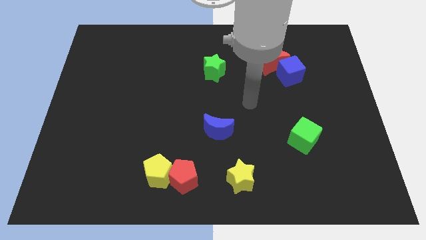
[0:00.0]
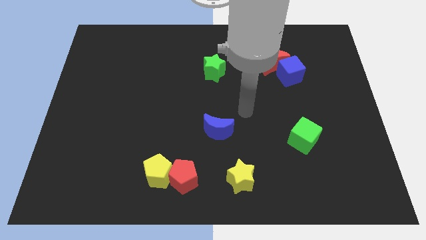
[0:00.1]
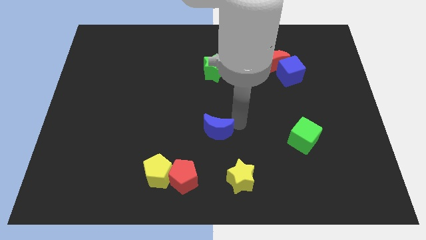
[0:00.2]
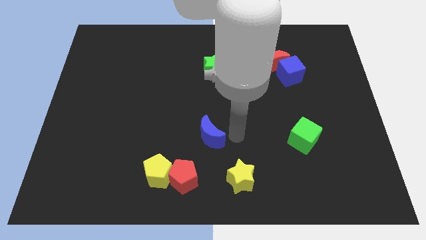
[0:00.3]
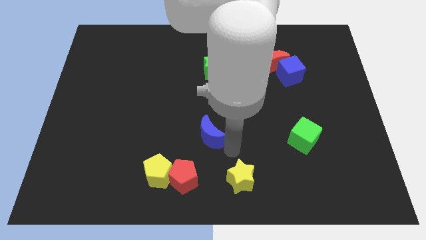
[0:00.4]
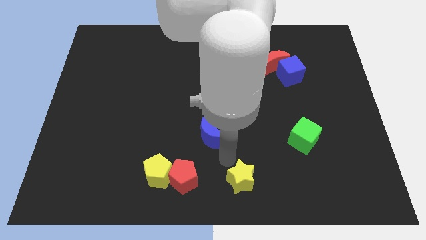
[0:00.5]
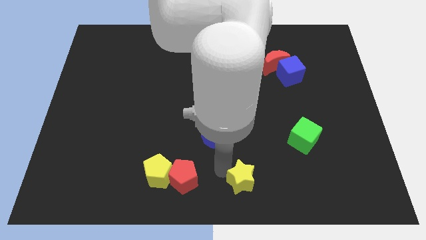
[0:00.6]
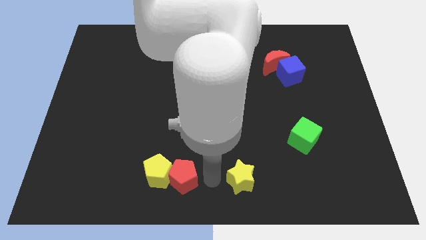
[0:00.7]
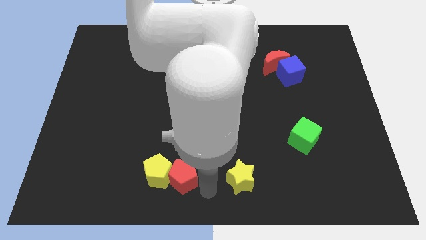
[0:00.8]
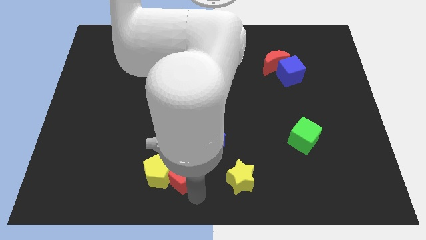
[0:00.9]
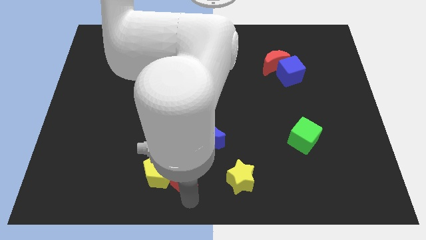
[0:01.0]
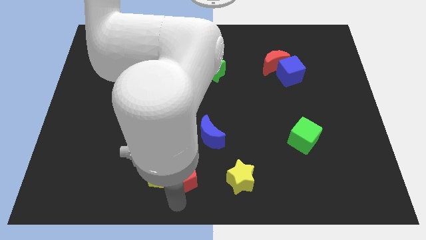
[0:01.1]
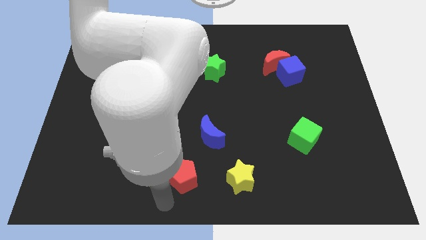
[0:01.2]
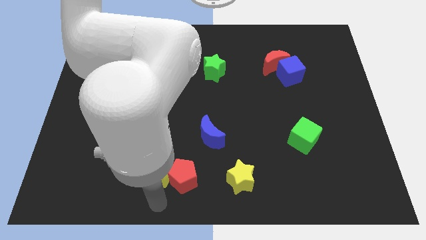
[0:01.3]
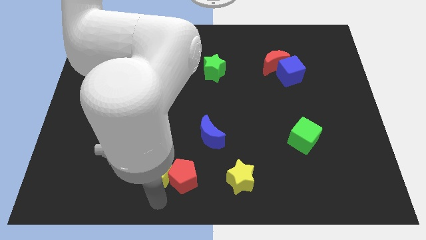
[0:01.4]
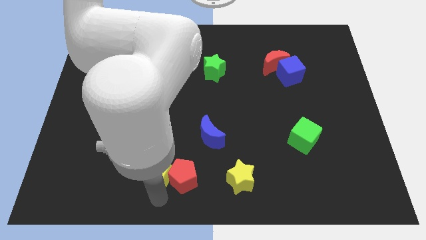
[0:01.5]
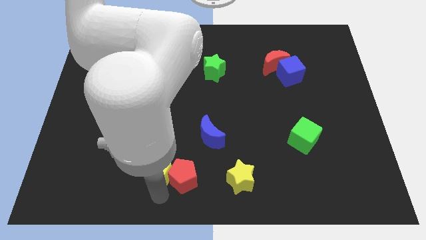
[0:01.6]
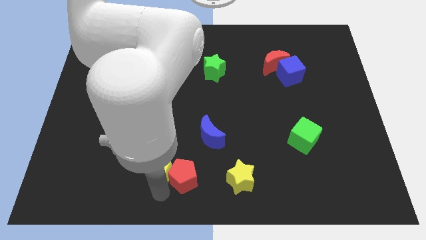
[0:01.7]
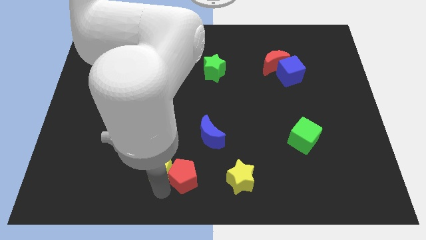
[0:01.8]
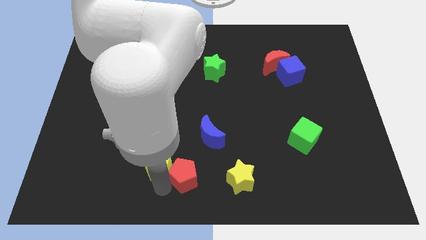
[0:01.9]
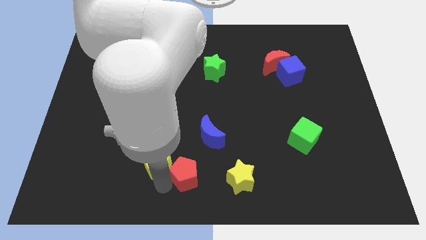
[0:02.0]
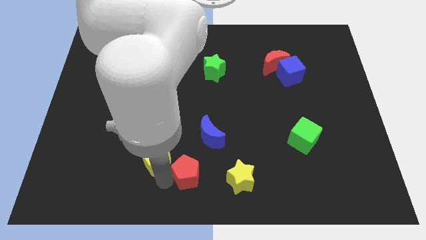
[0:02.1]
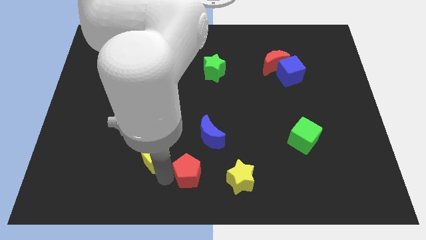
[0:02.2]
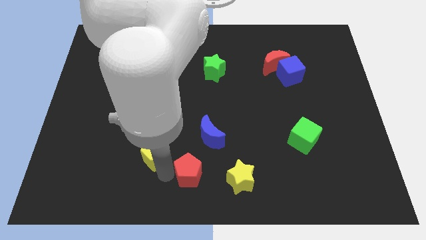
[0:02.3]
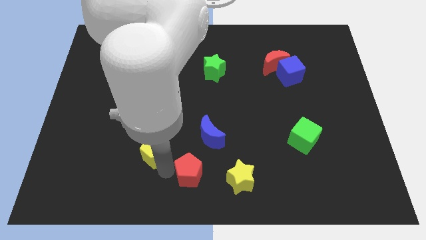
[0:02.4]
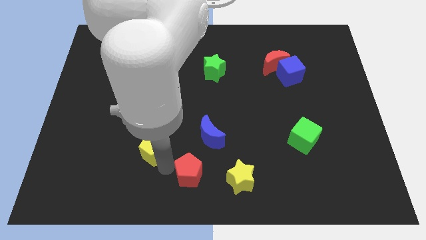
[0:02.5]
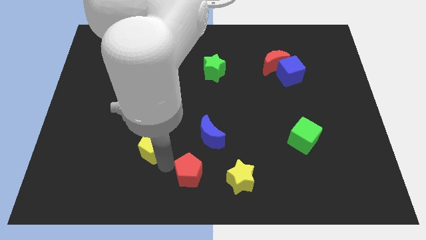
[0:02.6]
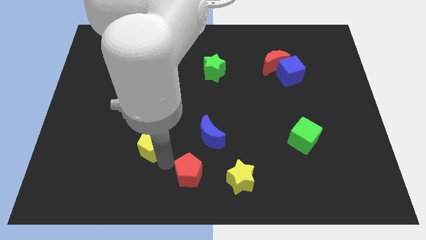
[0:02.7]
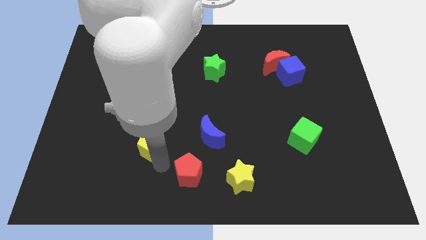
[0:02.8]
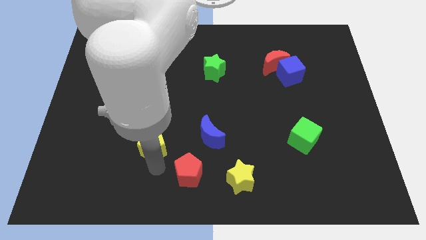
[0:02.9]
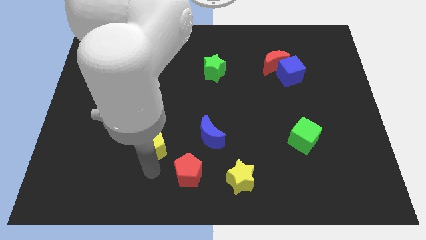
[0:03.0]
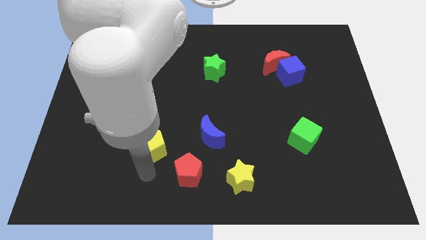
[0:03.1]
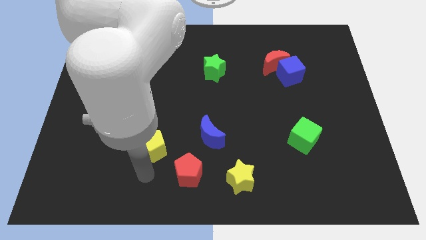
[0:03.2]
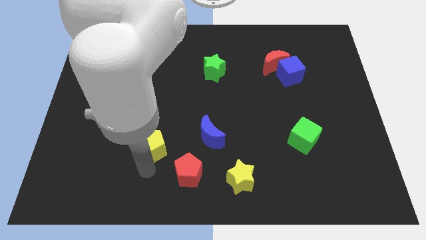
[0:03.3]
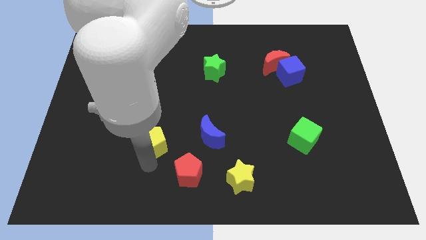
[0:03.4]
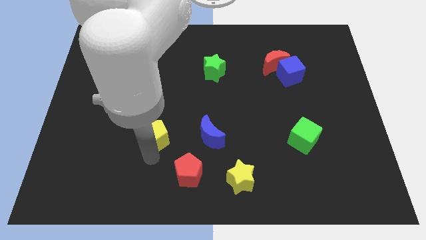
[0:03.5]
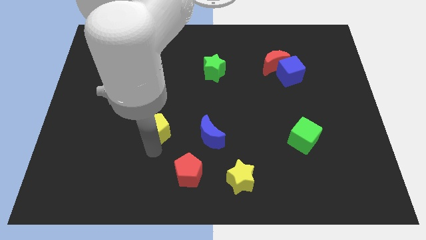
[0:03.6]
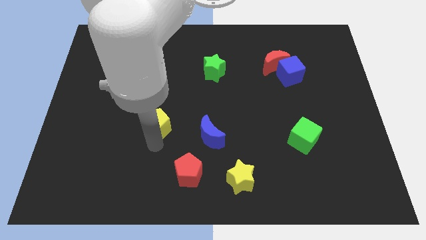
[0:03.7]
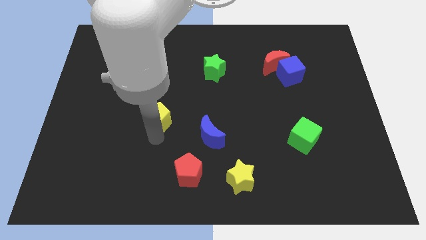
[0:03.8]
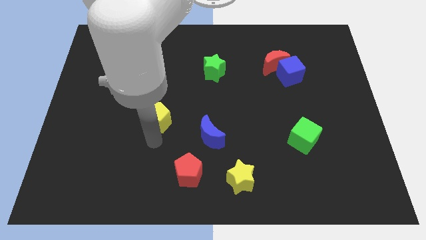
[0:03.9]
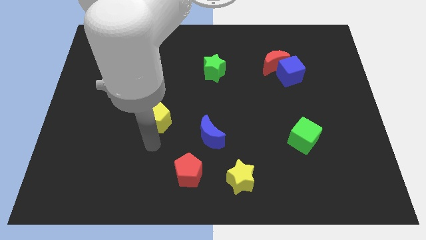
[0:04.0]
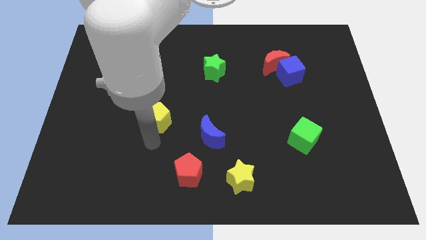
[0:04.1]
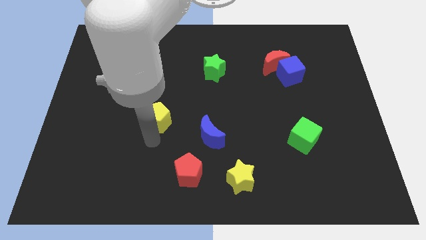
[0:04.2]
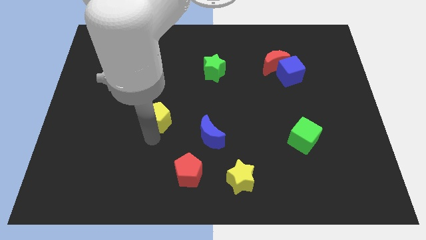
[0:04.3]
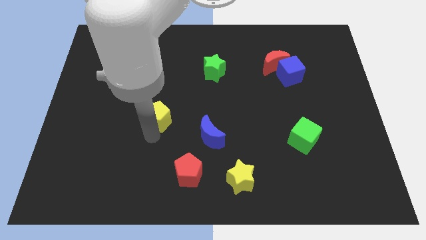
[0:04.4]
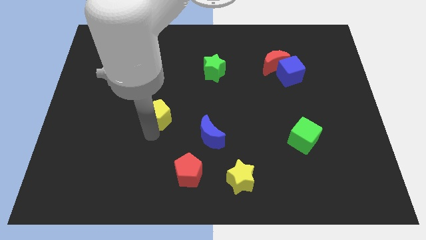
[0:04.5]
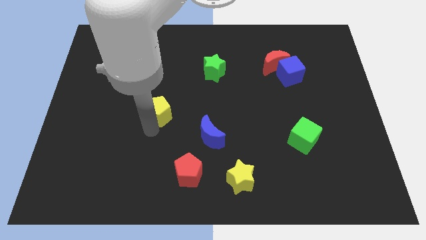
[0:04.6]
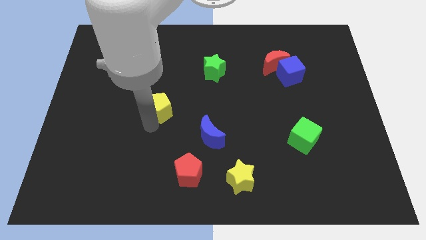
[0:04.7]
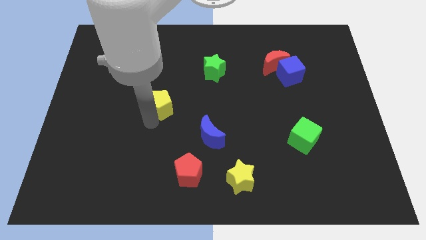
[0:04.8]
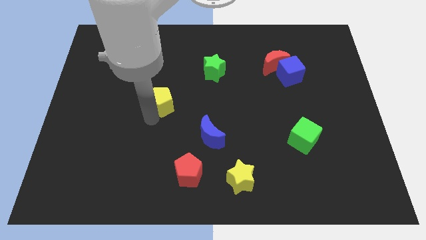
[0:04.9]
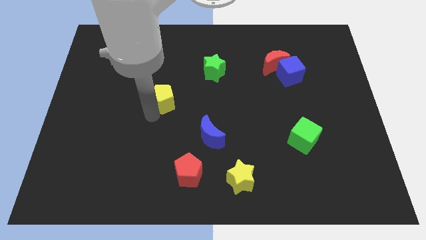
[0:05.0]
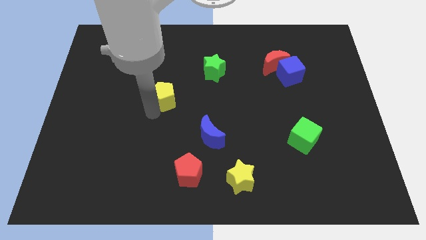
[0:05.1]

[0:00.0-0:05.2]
push the yellow pentagon up

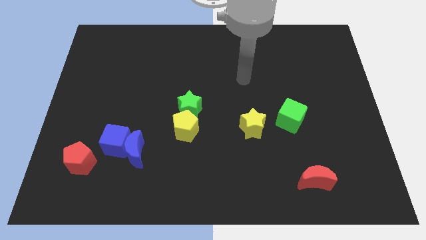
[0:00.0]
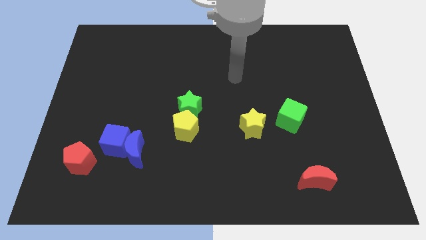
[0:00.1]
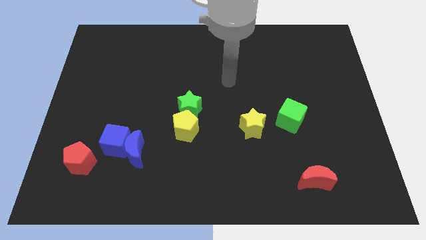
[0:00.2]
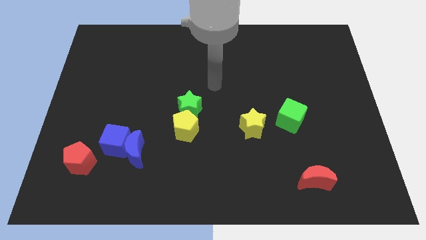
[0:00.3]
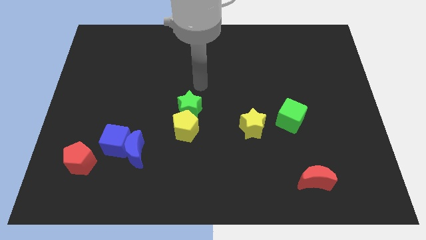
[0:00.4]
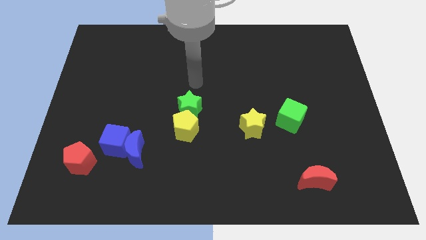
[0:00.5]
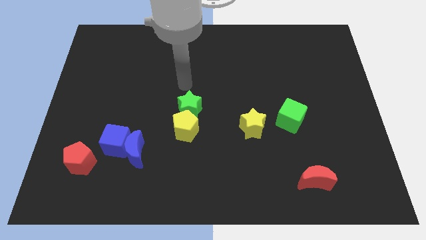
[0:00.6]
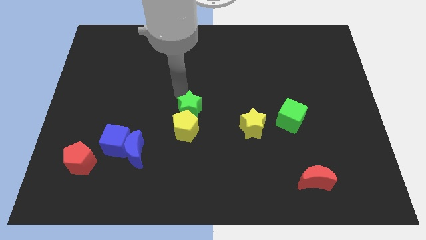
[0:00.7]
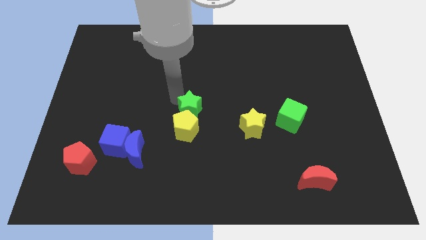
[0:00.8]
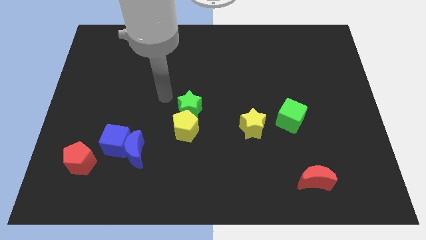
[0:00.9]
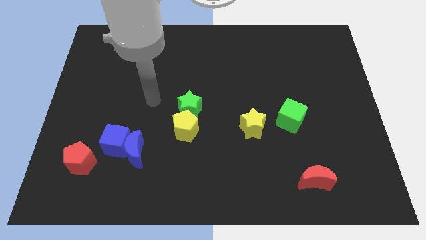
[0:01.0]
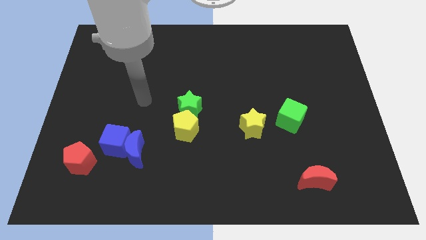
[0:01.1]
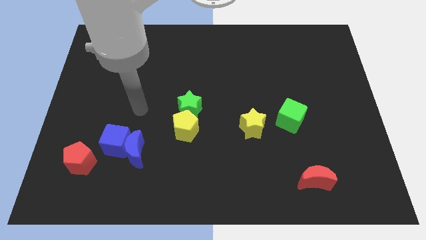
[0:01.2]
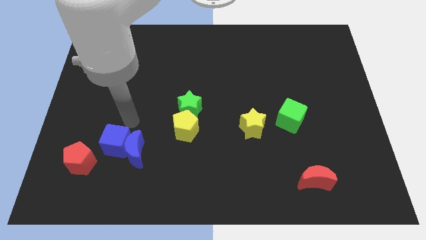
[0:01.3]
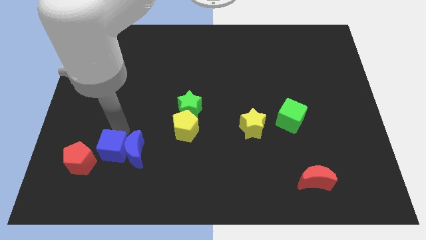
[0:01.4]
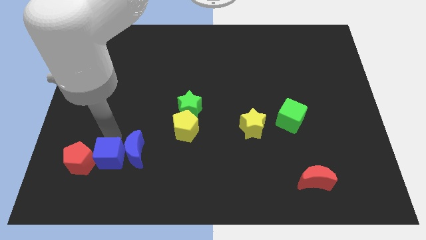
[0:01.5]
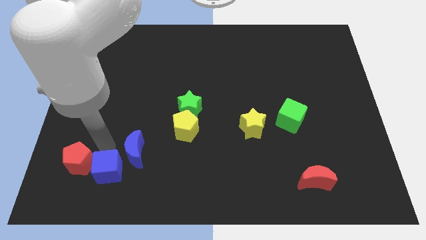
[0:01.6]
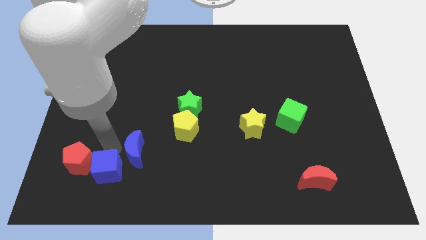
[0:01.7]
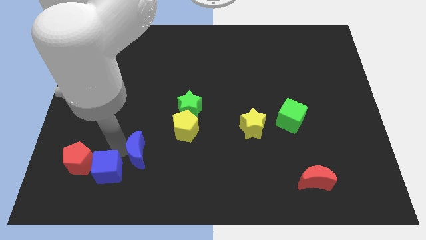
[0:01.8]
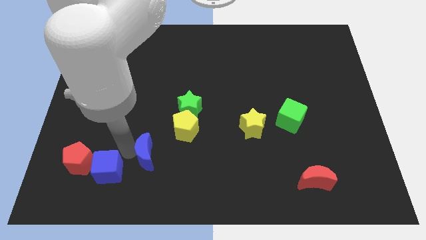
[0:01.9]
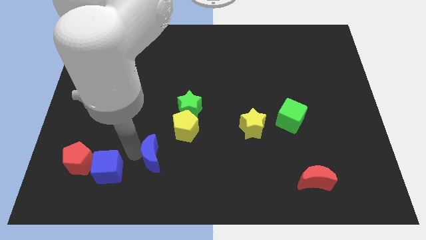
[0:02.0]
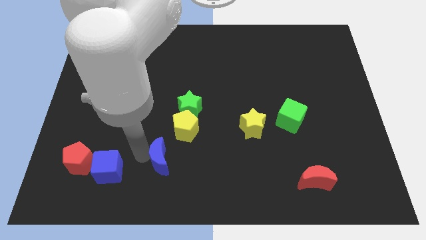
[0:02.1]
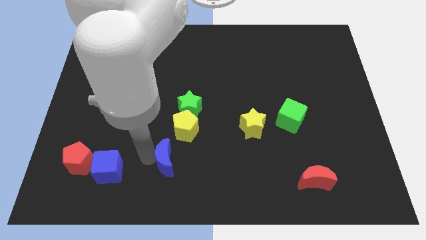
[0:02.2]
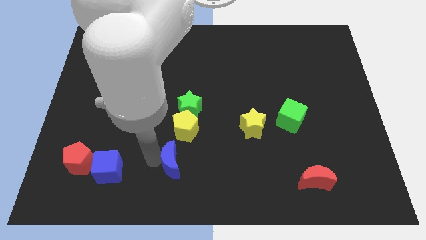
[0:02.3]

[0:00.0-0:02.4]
slide the blue moon somewhat right

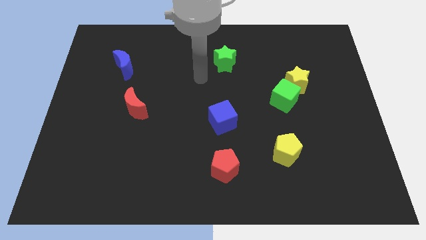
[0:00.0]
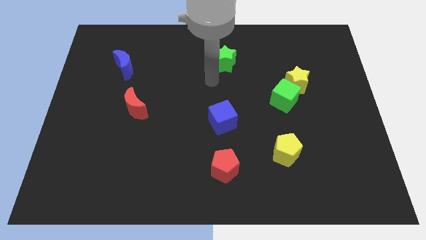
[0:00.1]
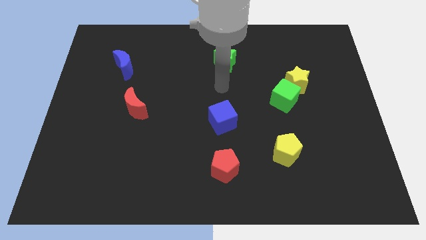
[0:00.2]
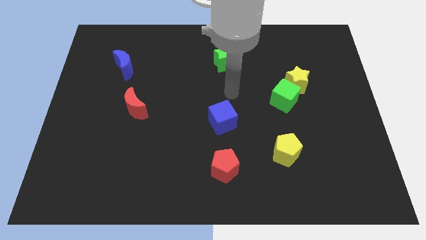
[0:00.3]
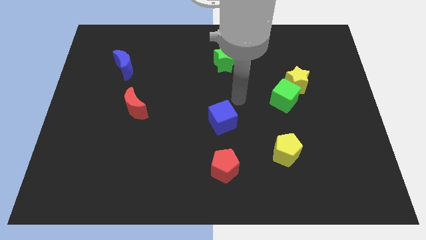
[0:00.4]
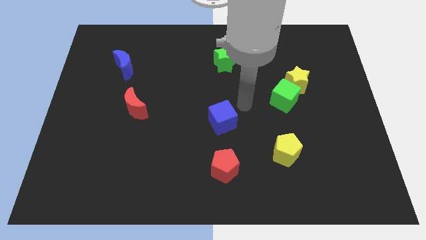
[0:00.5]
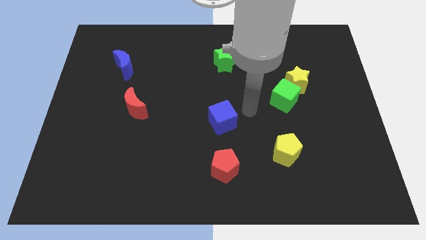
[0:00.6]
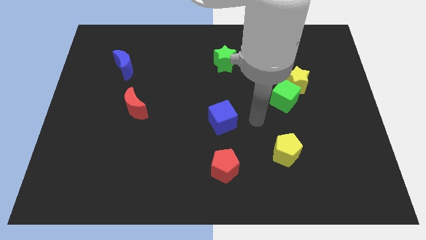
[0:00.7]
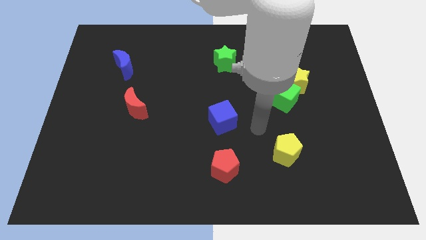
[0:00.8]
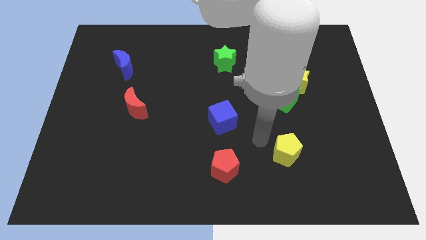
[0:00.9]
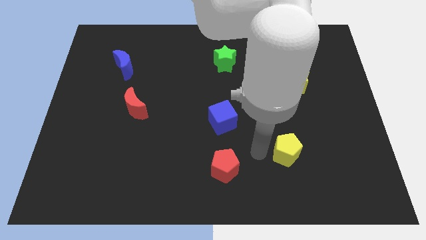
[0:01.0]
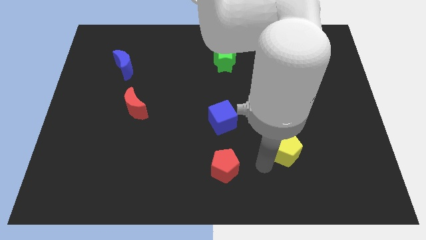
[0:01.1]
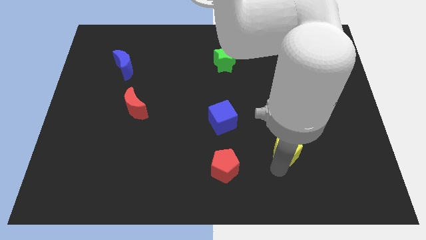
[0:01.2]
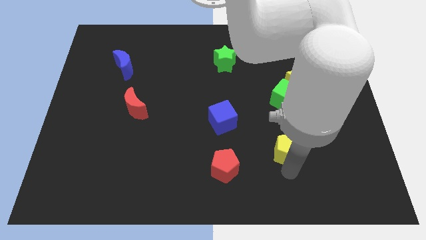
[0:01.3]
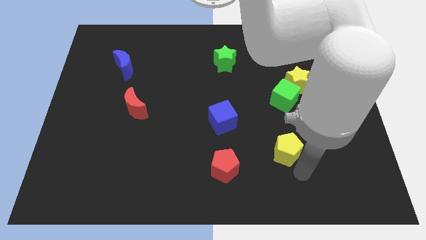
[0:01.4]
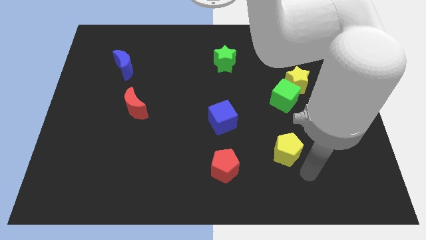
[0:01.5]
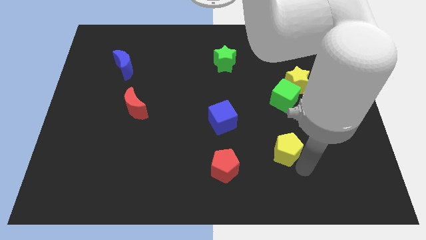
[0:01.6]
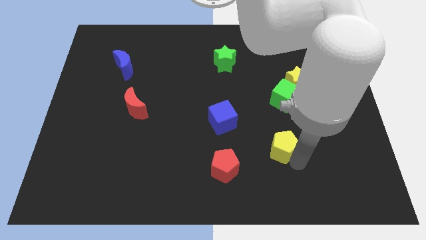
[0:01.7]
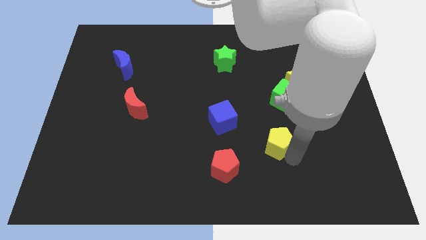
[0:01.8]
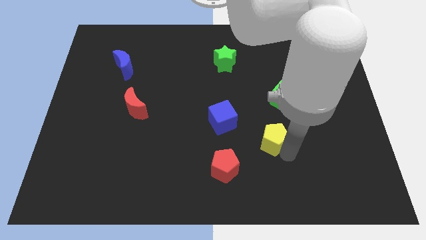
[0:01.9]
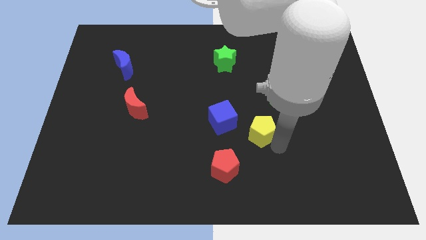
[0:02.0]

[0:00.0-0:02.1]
slightly slide the yellow pentagon upwards and then to the left
